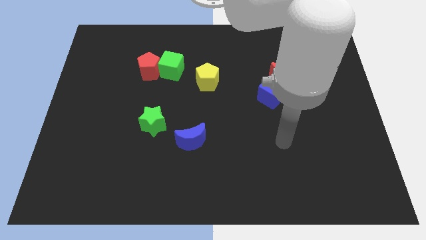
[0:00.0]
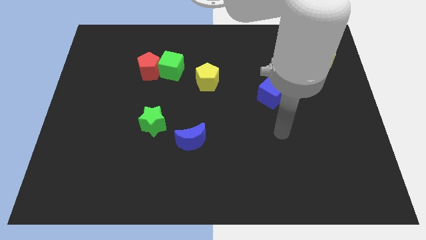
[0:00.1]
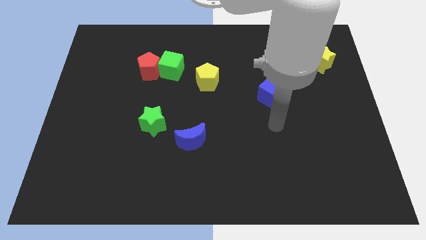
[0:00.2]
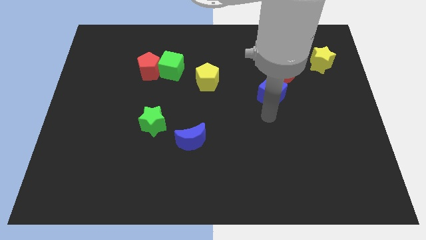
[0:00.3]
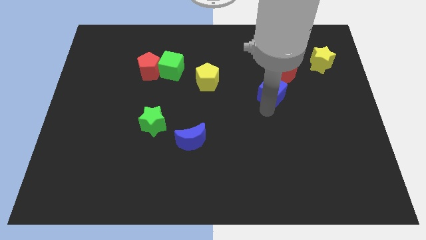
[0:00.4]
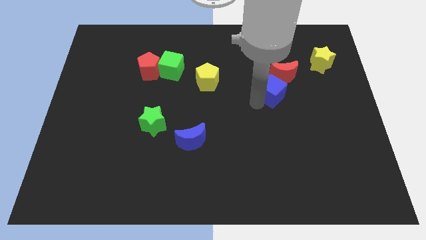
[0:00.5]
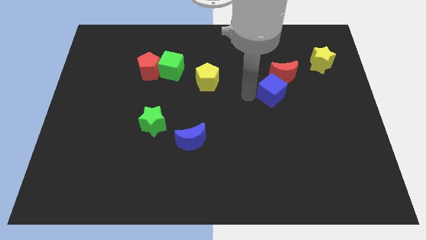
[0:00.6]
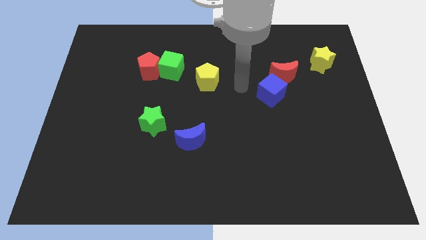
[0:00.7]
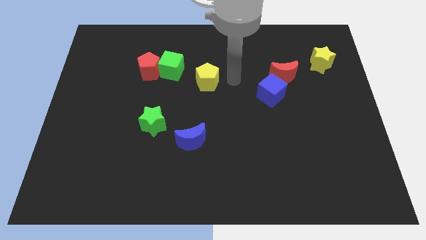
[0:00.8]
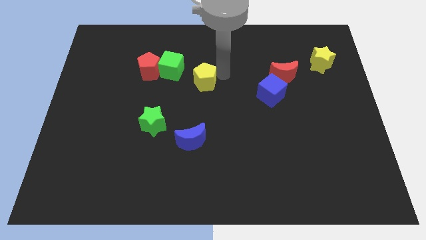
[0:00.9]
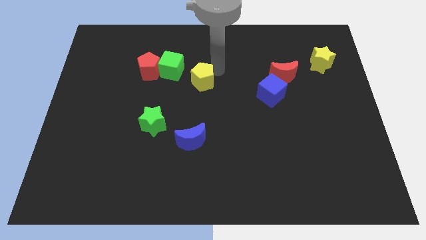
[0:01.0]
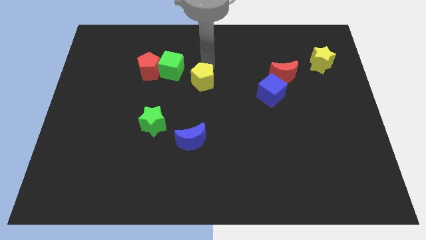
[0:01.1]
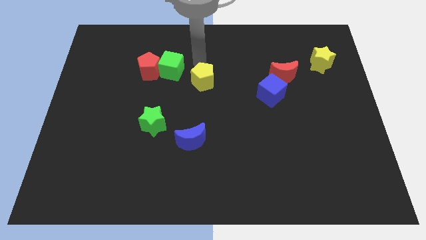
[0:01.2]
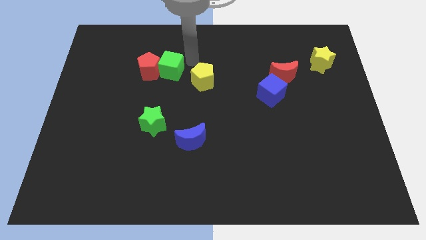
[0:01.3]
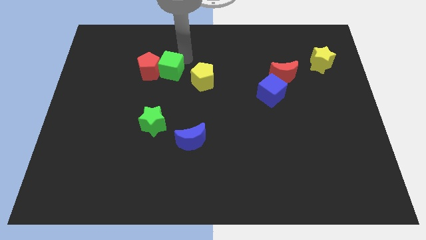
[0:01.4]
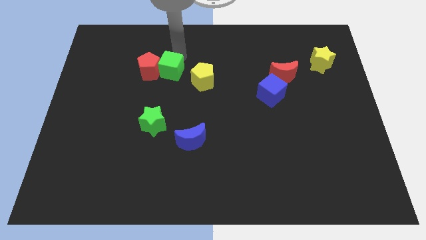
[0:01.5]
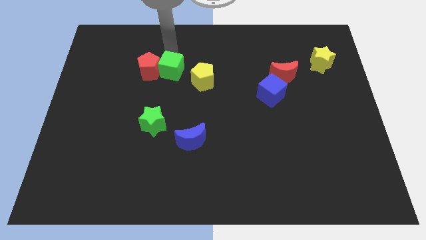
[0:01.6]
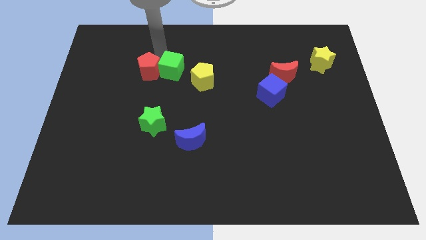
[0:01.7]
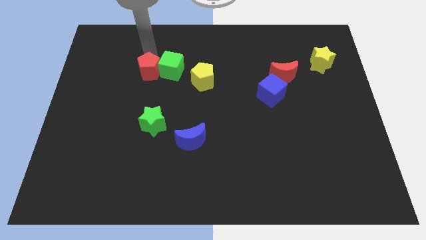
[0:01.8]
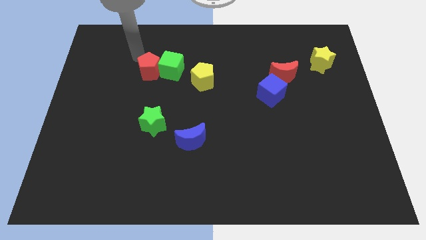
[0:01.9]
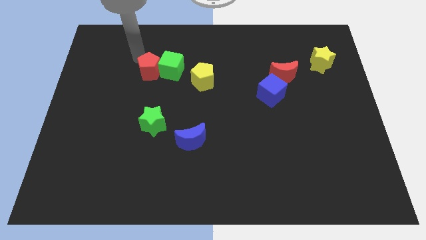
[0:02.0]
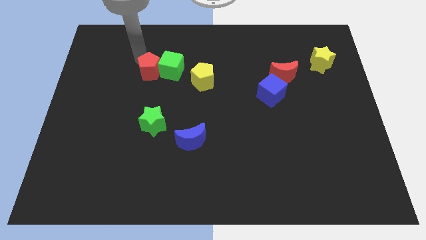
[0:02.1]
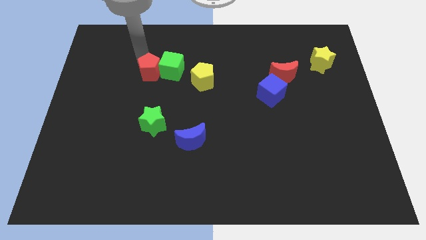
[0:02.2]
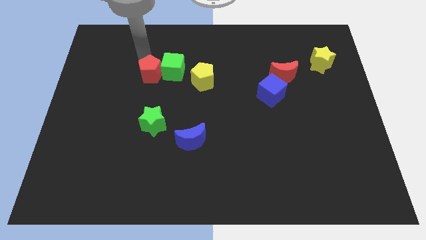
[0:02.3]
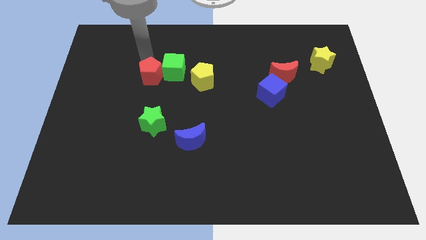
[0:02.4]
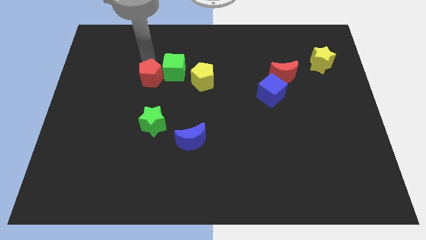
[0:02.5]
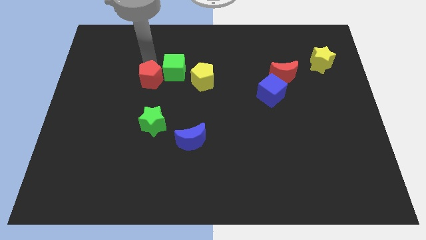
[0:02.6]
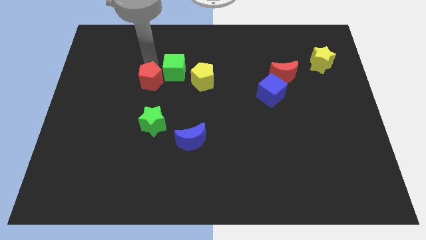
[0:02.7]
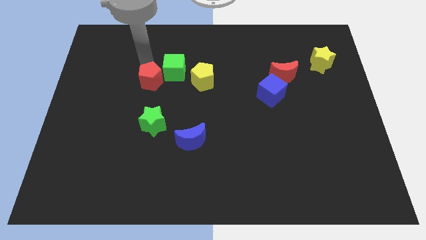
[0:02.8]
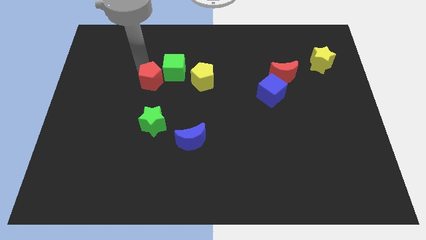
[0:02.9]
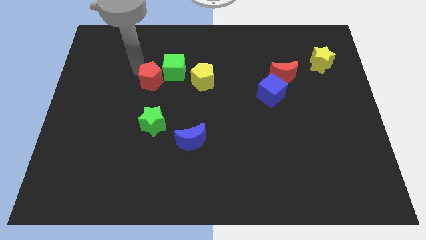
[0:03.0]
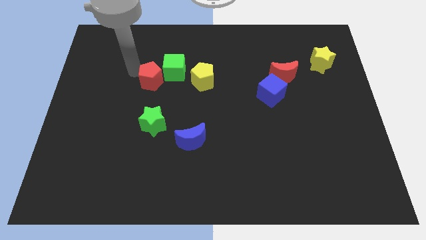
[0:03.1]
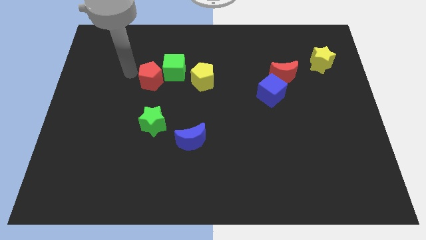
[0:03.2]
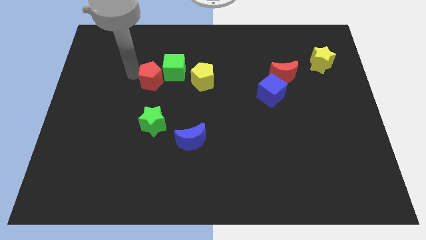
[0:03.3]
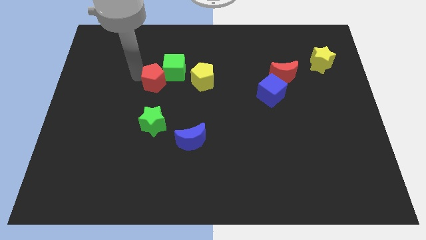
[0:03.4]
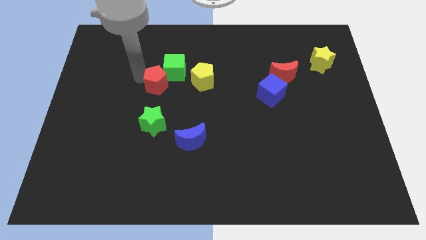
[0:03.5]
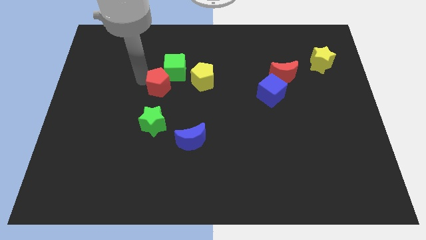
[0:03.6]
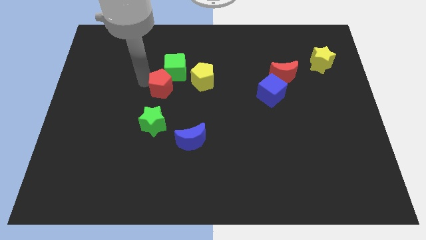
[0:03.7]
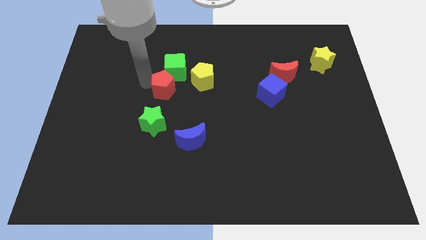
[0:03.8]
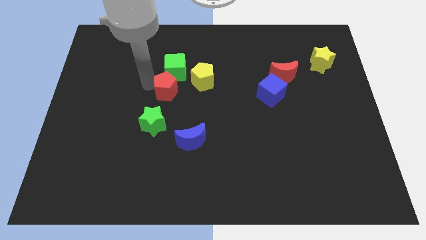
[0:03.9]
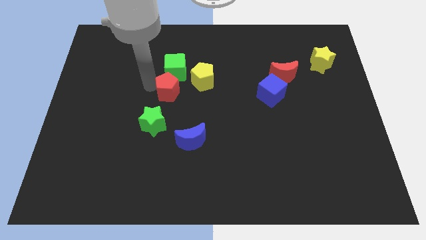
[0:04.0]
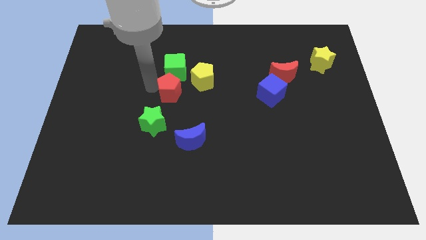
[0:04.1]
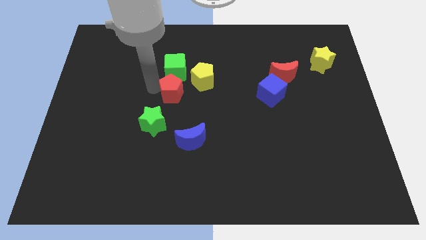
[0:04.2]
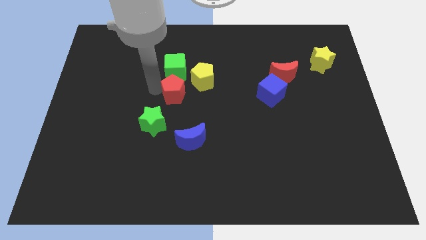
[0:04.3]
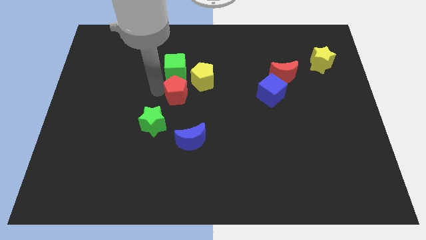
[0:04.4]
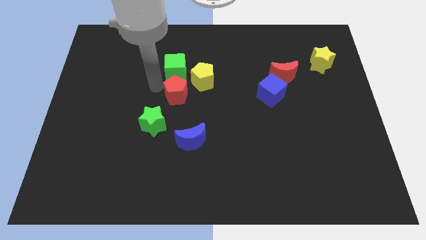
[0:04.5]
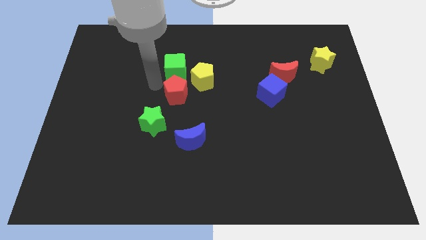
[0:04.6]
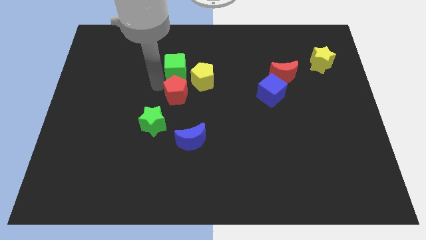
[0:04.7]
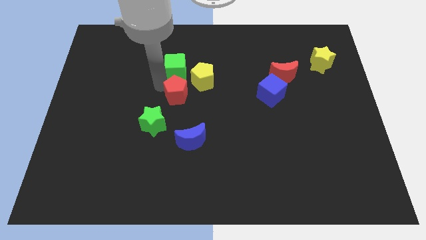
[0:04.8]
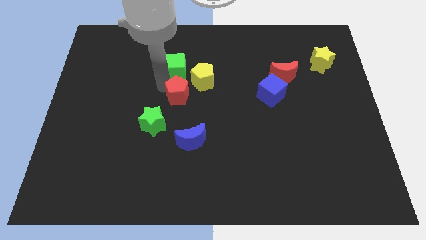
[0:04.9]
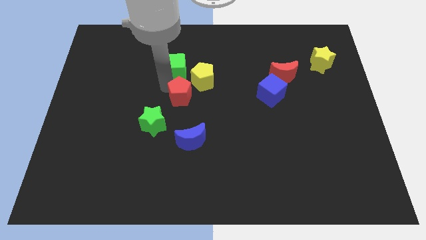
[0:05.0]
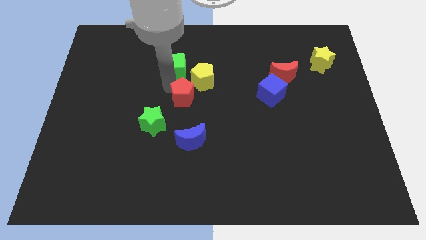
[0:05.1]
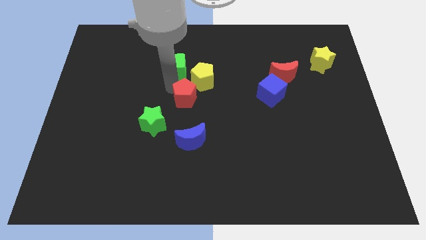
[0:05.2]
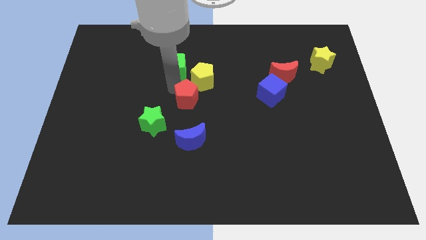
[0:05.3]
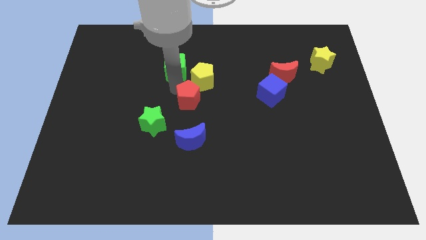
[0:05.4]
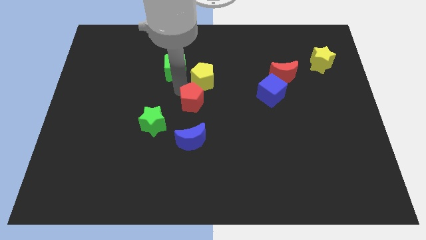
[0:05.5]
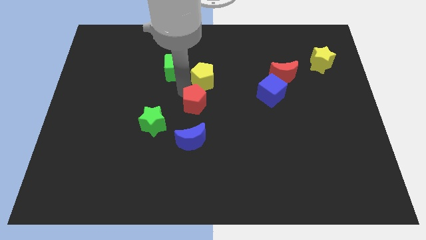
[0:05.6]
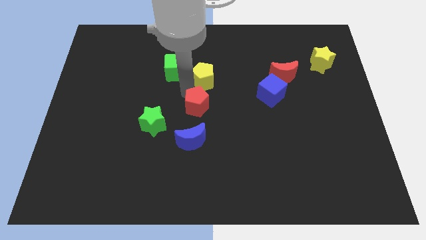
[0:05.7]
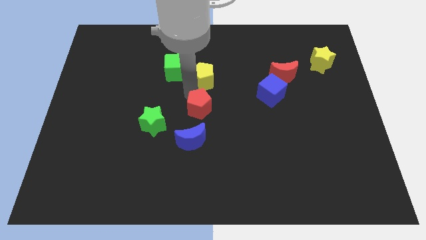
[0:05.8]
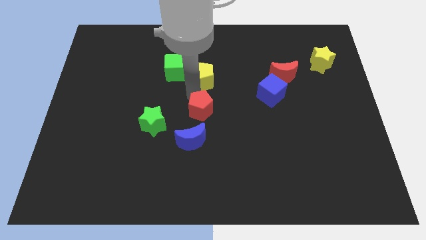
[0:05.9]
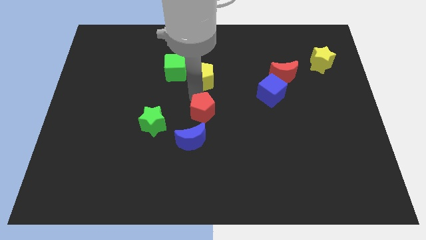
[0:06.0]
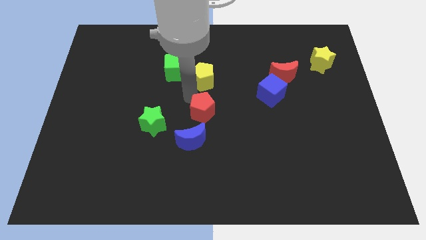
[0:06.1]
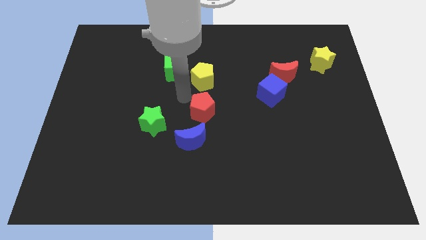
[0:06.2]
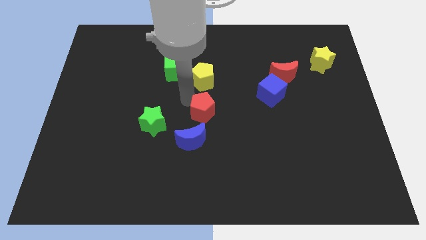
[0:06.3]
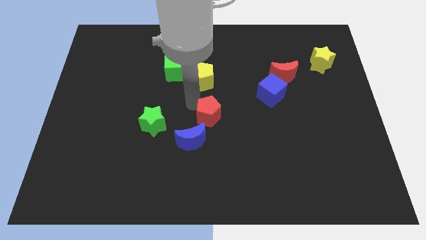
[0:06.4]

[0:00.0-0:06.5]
push the red pentagon downwards and then right

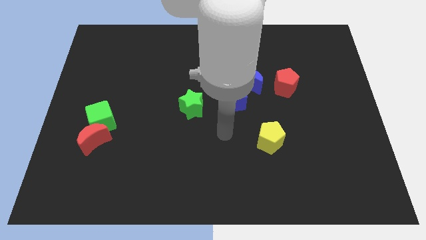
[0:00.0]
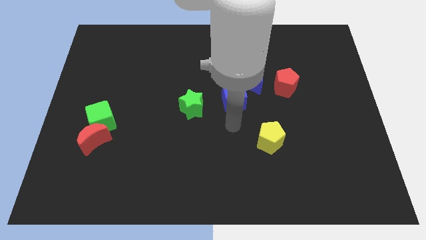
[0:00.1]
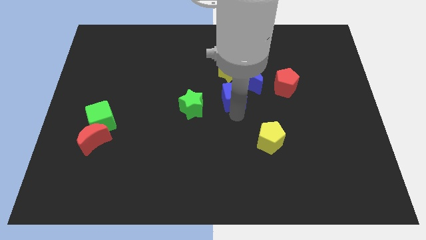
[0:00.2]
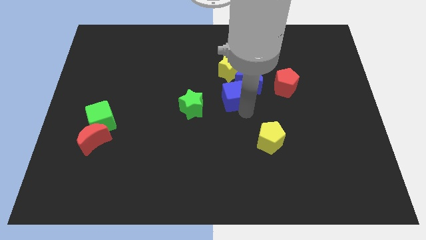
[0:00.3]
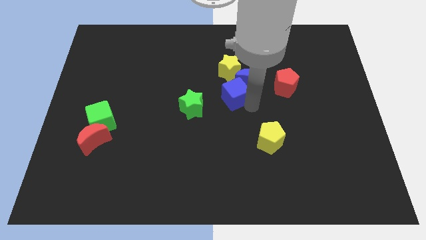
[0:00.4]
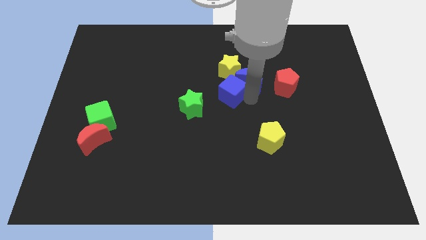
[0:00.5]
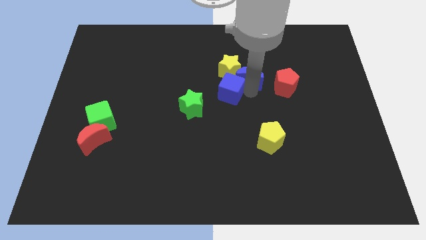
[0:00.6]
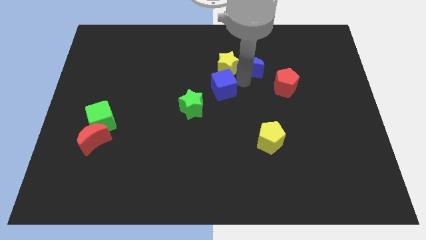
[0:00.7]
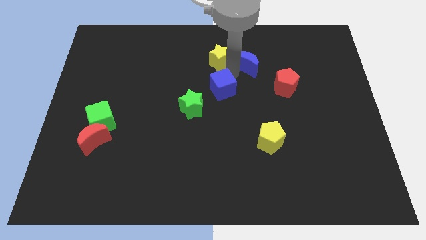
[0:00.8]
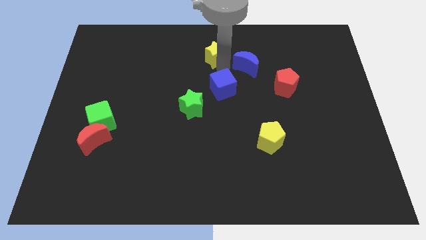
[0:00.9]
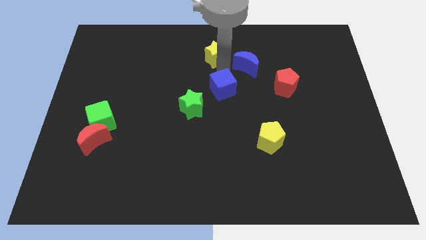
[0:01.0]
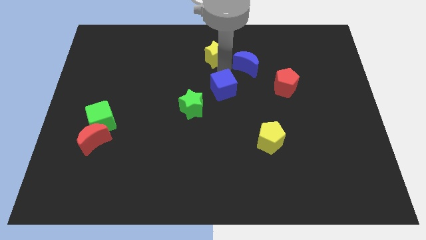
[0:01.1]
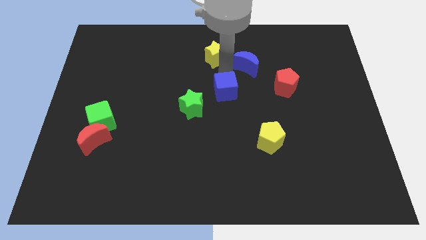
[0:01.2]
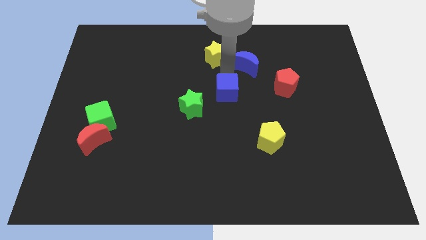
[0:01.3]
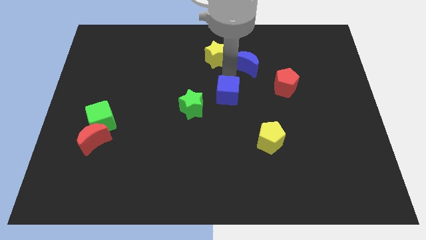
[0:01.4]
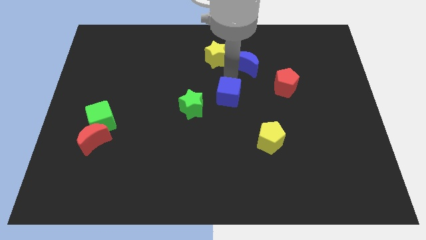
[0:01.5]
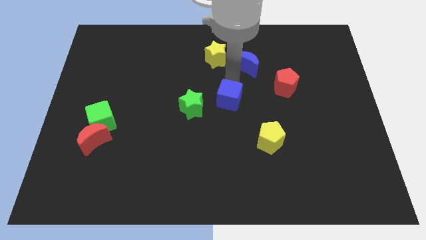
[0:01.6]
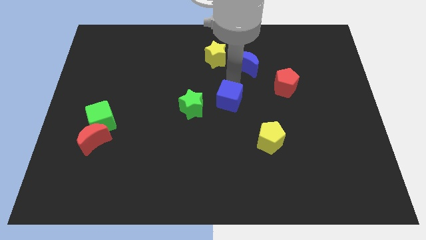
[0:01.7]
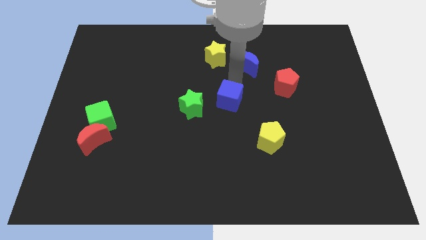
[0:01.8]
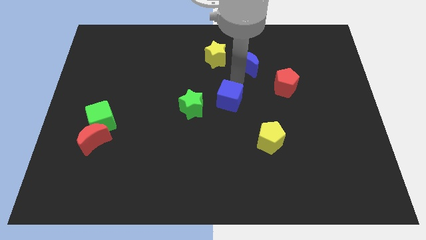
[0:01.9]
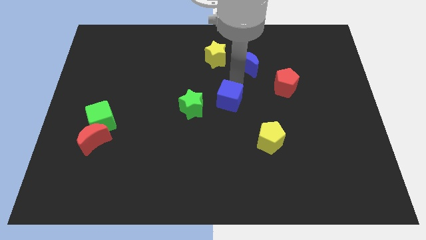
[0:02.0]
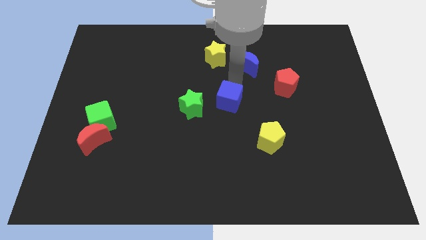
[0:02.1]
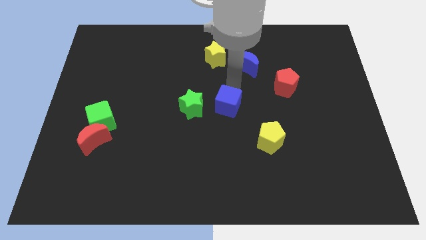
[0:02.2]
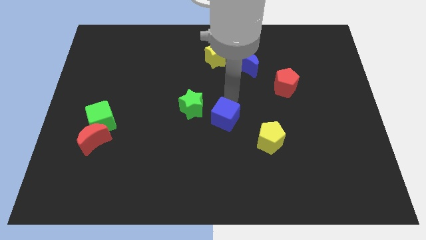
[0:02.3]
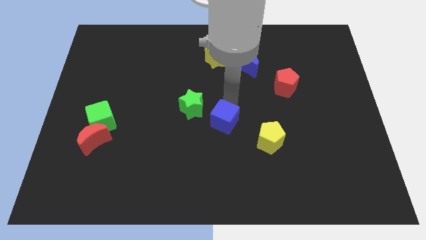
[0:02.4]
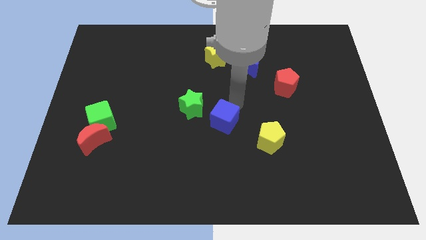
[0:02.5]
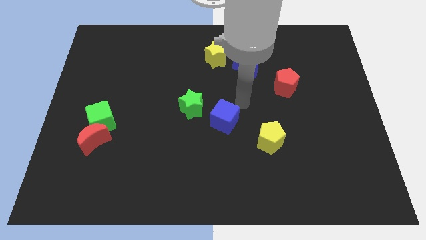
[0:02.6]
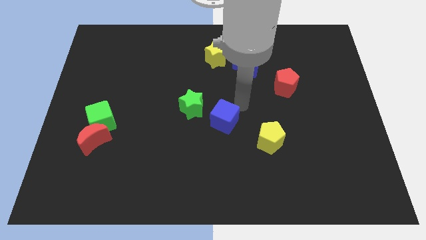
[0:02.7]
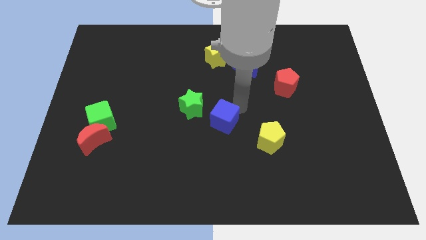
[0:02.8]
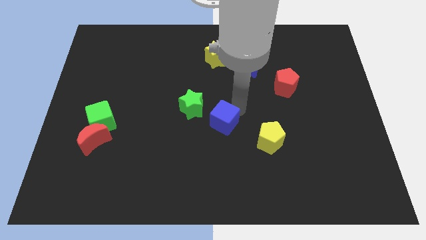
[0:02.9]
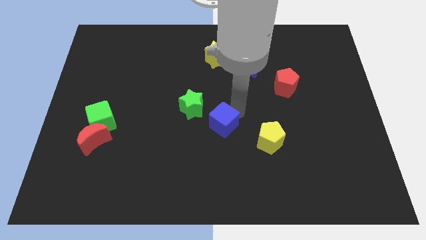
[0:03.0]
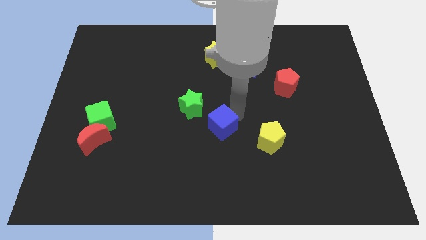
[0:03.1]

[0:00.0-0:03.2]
slide the blue cube a little downwards and to the left diagonally
